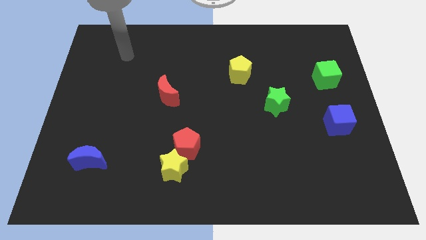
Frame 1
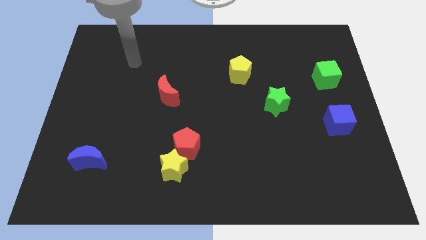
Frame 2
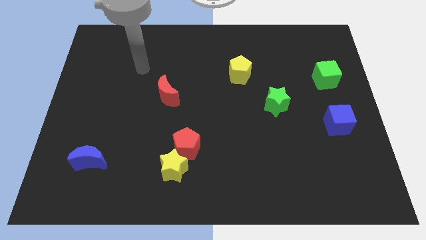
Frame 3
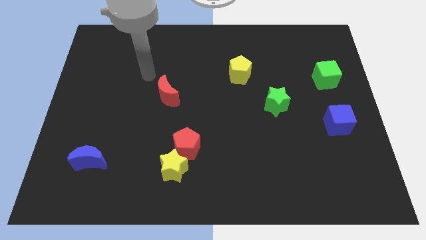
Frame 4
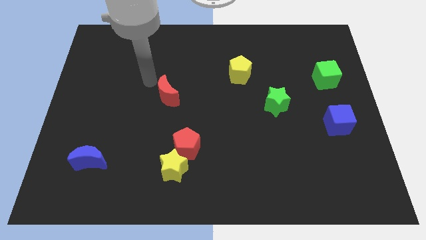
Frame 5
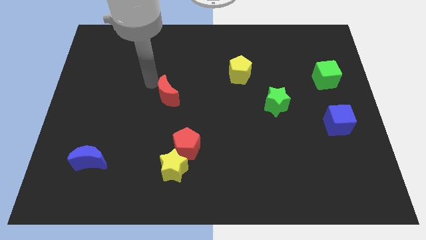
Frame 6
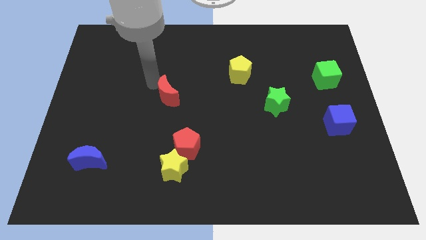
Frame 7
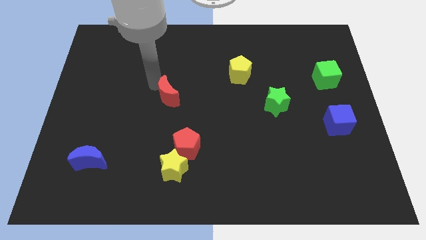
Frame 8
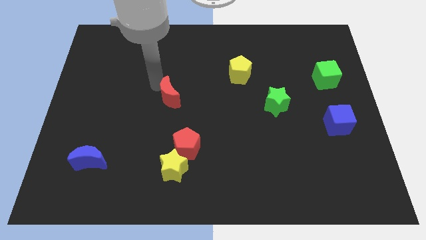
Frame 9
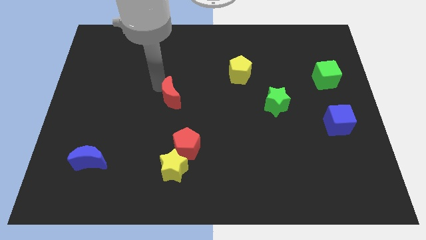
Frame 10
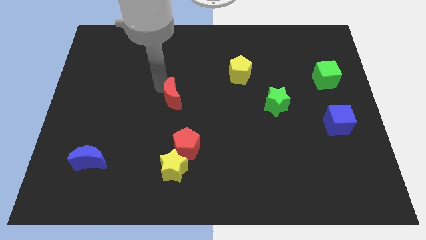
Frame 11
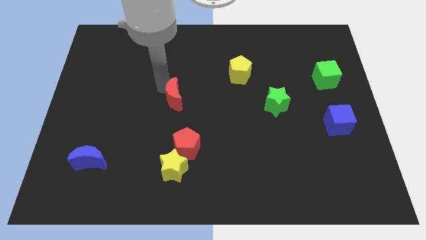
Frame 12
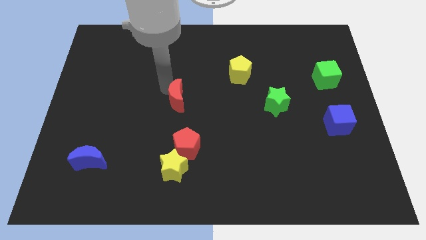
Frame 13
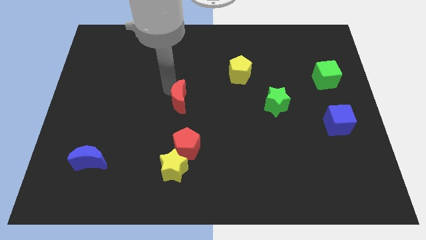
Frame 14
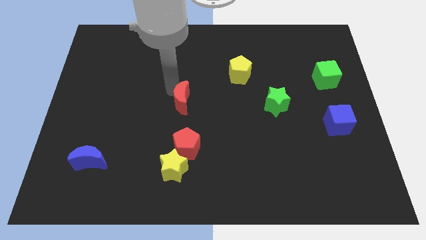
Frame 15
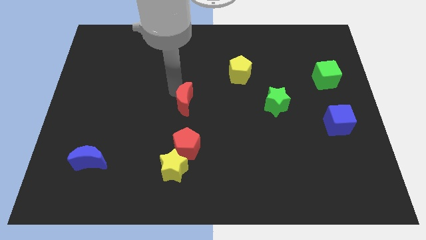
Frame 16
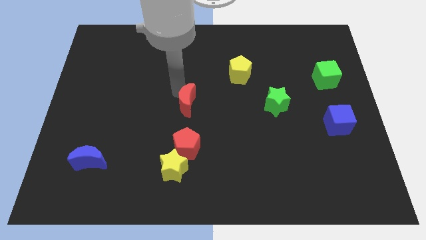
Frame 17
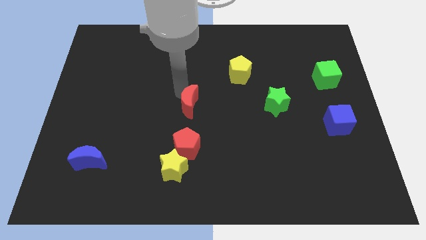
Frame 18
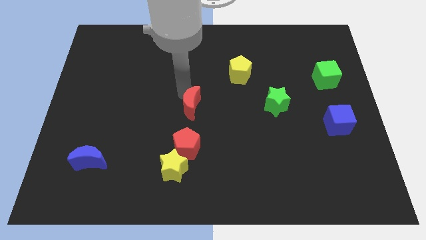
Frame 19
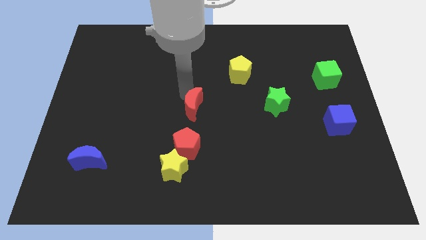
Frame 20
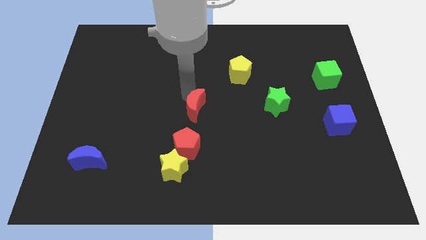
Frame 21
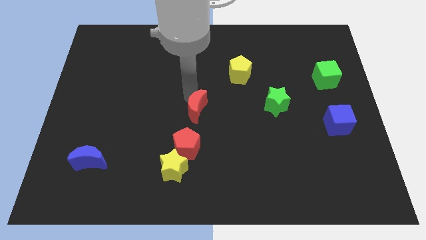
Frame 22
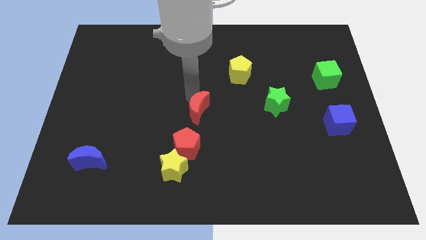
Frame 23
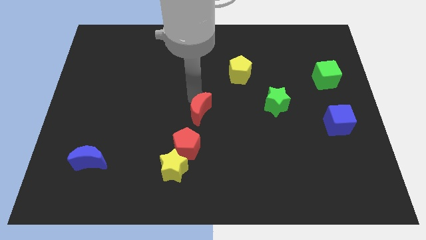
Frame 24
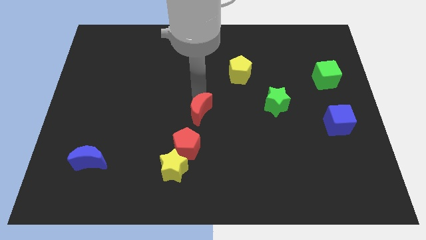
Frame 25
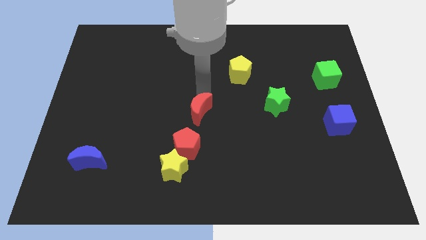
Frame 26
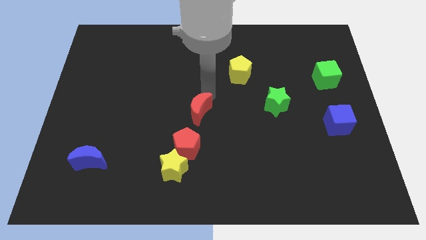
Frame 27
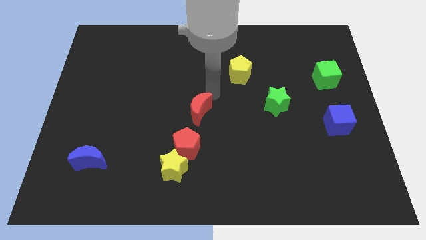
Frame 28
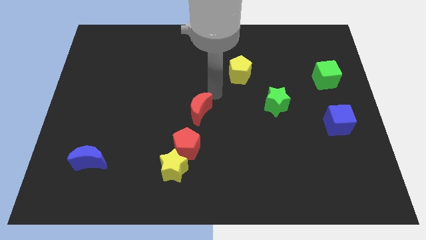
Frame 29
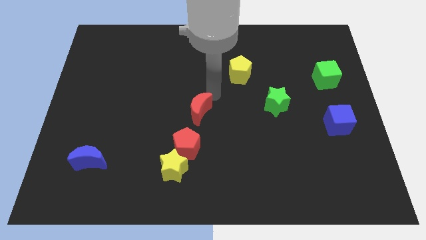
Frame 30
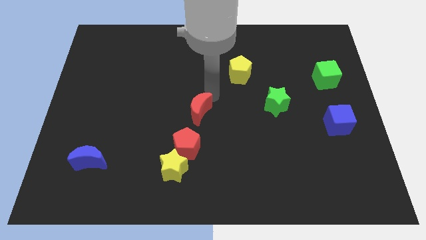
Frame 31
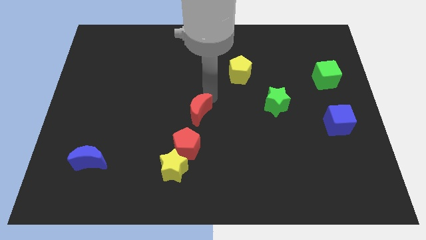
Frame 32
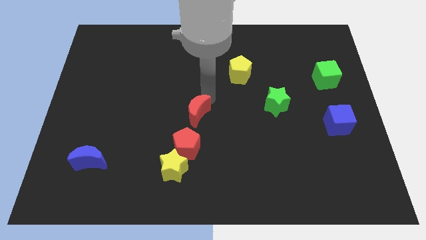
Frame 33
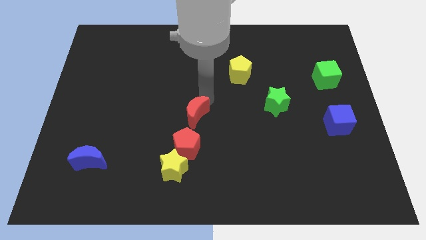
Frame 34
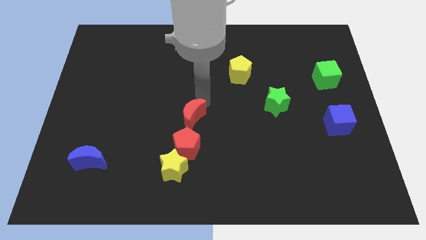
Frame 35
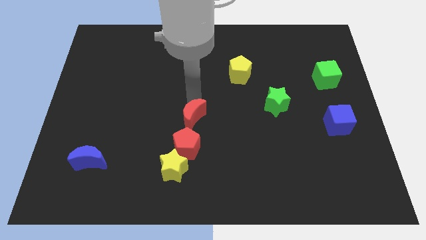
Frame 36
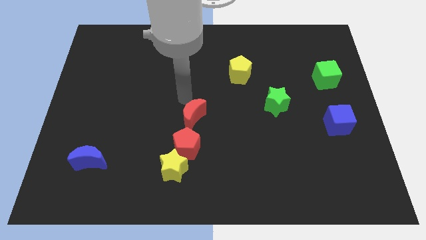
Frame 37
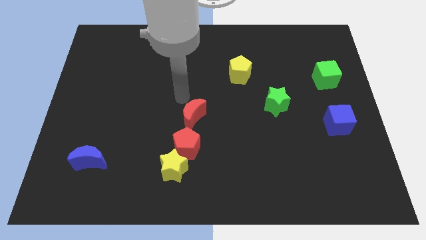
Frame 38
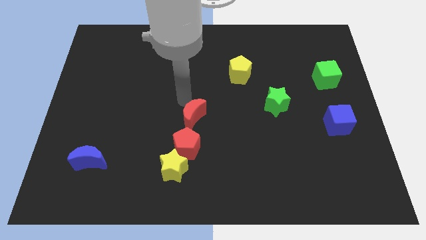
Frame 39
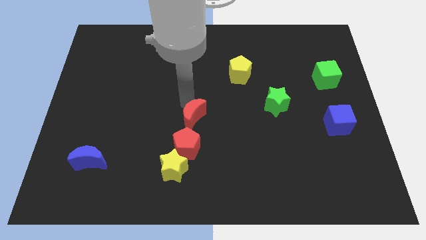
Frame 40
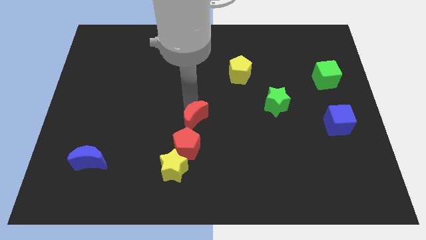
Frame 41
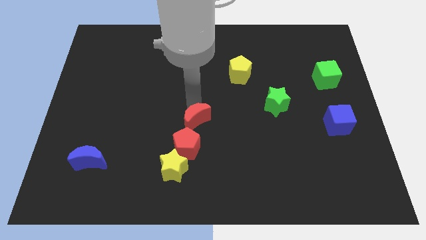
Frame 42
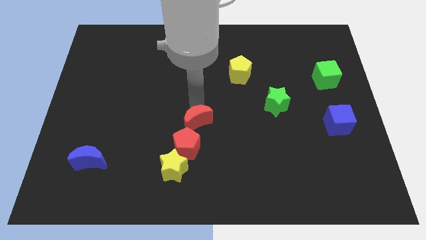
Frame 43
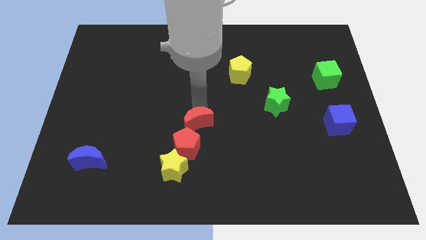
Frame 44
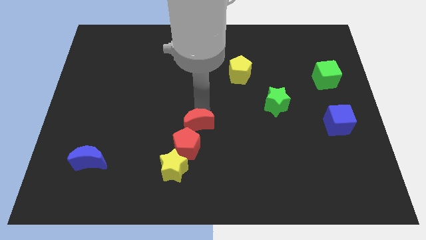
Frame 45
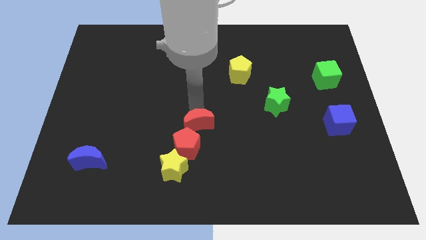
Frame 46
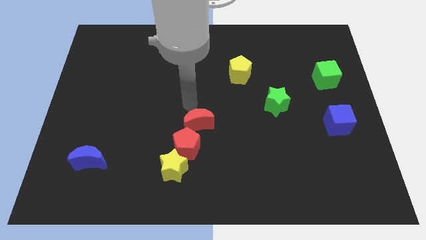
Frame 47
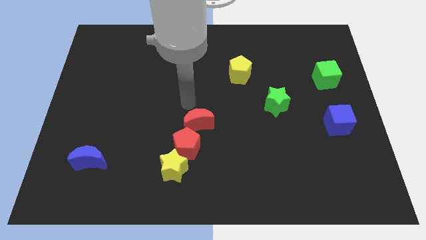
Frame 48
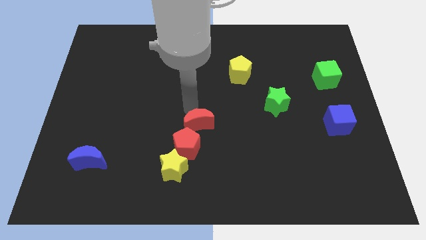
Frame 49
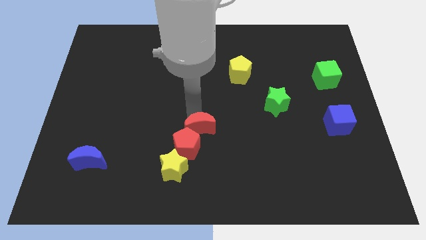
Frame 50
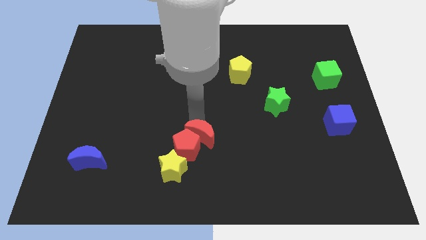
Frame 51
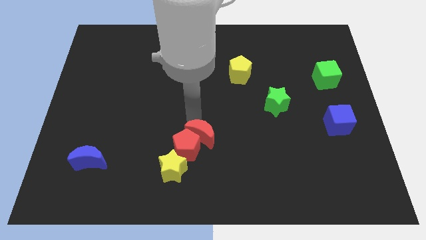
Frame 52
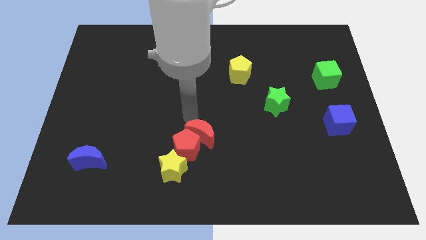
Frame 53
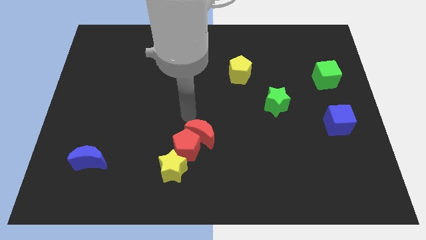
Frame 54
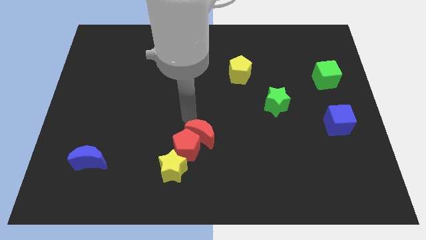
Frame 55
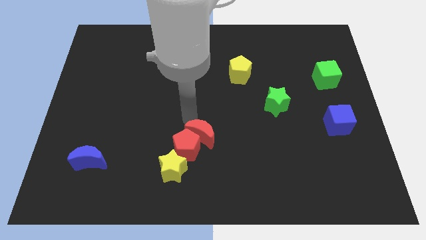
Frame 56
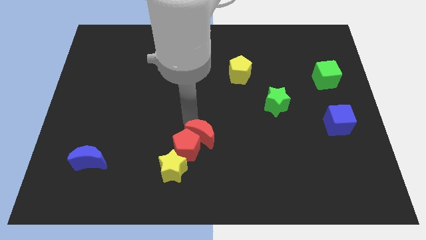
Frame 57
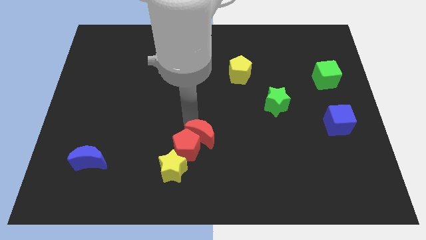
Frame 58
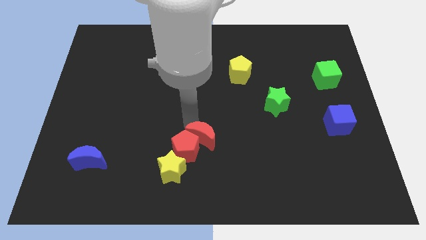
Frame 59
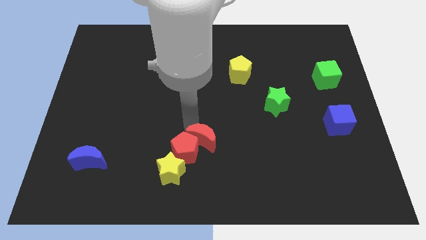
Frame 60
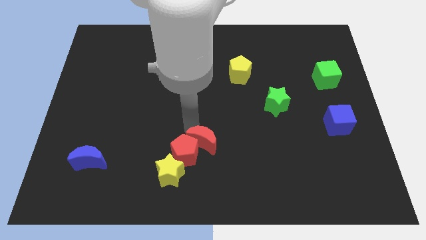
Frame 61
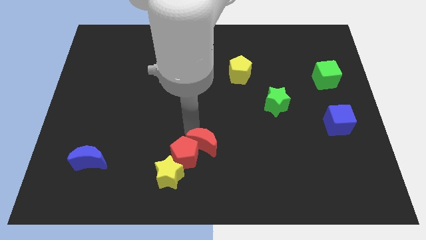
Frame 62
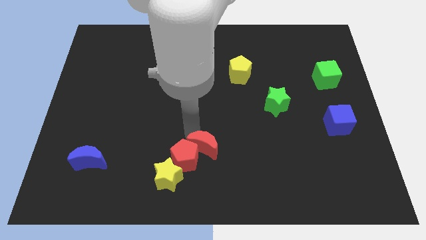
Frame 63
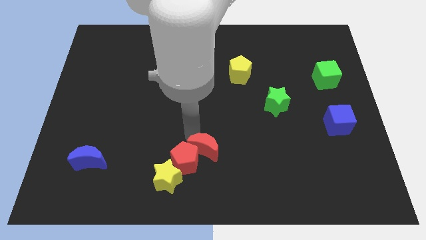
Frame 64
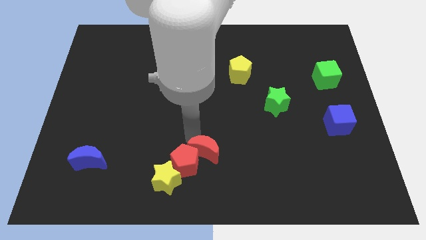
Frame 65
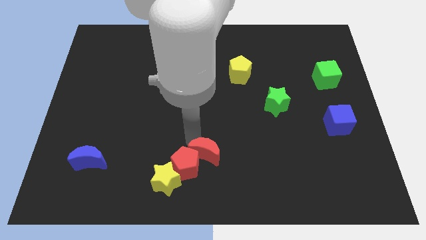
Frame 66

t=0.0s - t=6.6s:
push the red moon to the bottom side
